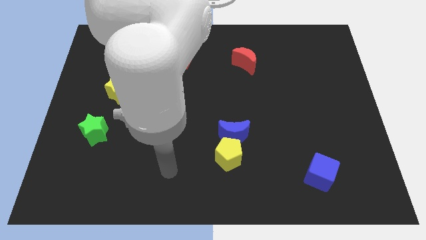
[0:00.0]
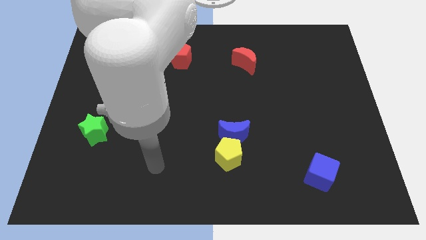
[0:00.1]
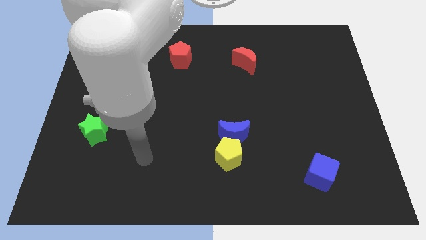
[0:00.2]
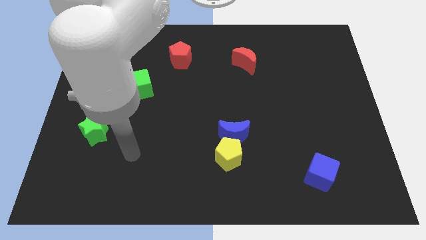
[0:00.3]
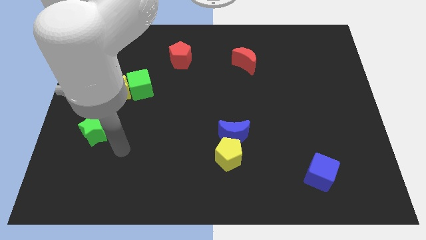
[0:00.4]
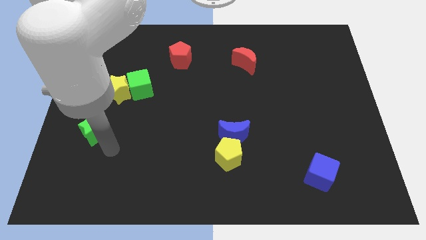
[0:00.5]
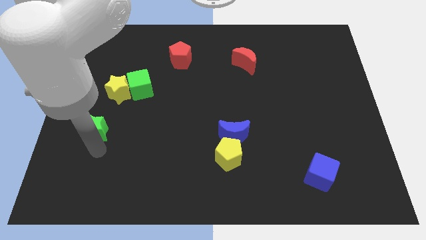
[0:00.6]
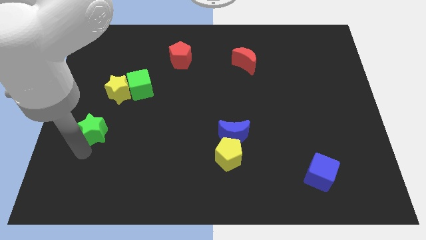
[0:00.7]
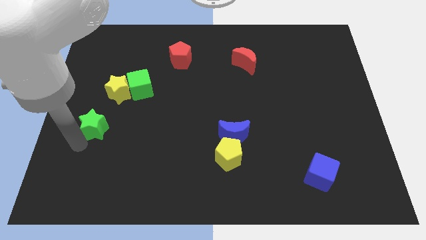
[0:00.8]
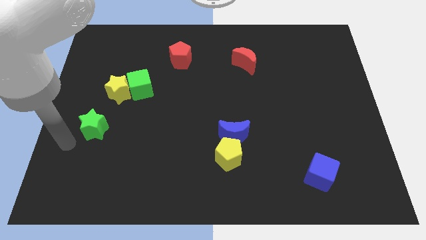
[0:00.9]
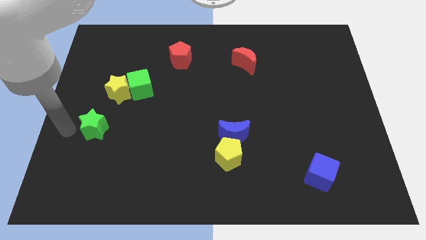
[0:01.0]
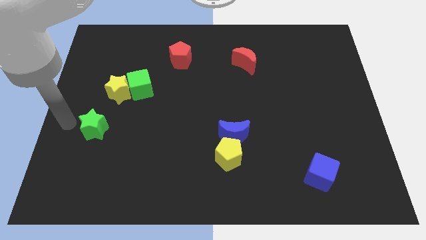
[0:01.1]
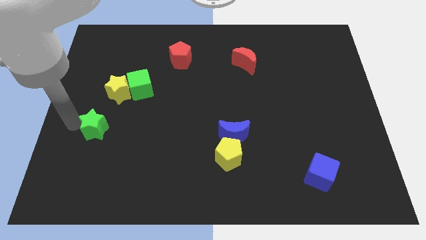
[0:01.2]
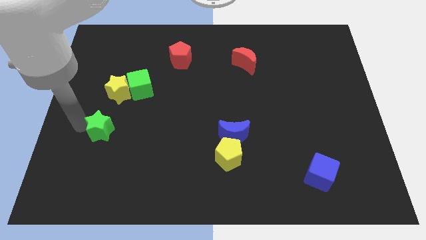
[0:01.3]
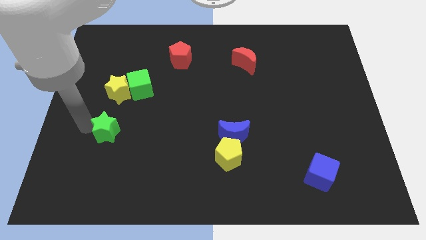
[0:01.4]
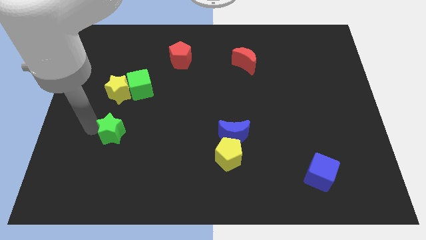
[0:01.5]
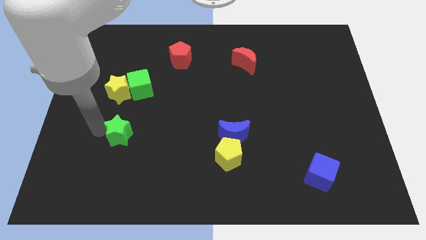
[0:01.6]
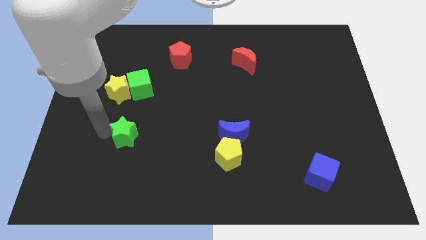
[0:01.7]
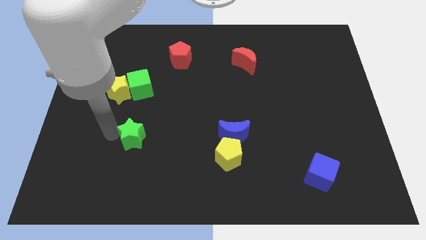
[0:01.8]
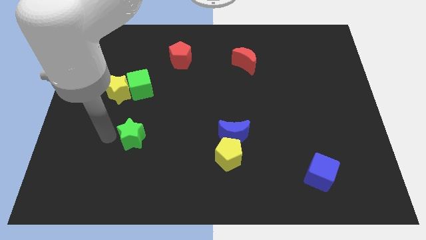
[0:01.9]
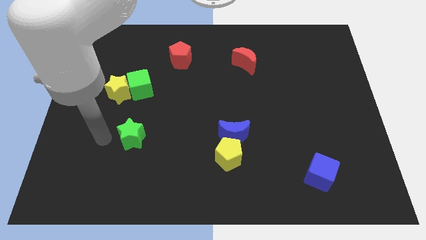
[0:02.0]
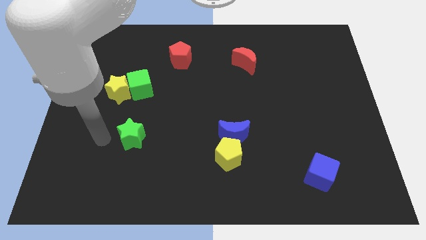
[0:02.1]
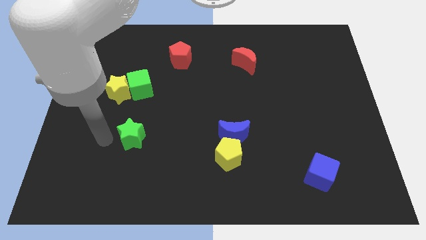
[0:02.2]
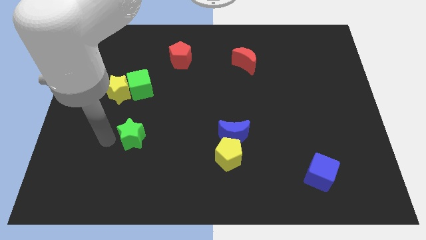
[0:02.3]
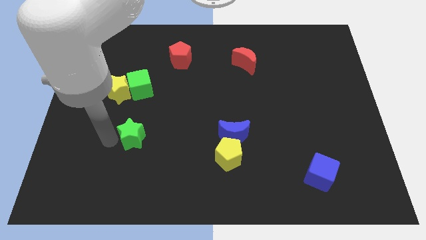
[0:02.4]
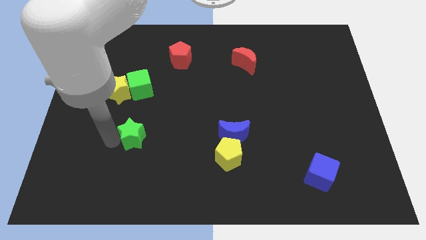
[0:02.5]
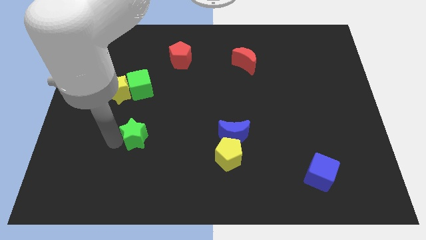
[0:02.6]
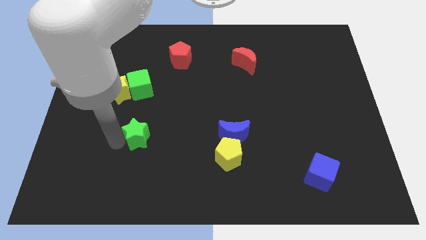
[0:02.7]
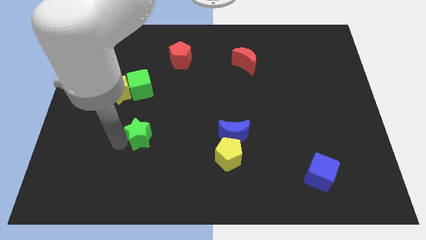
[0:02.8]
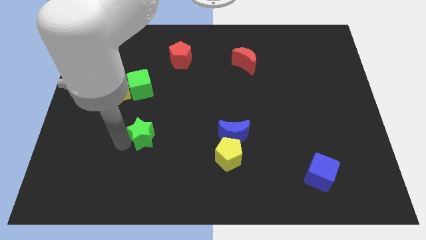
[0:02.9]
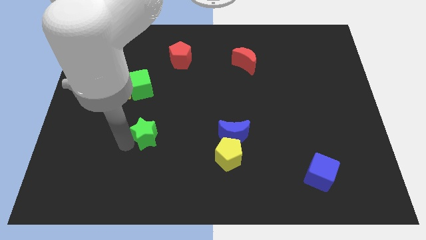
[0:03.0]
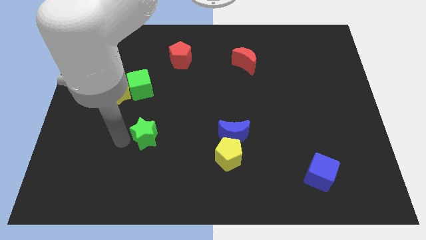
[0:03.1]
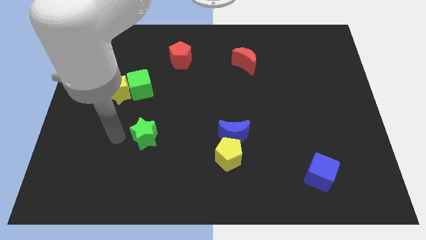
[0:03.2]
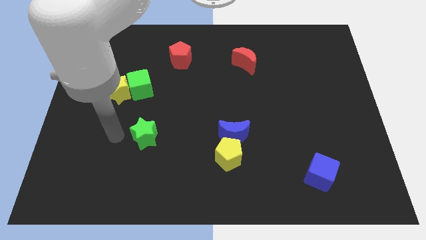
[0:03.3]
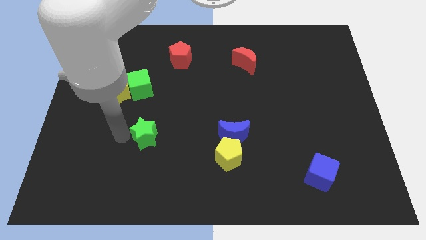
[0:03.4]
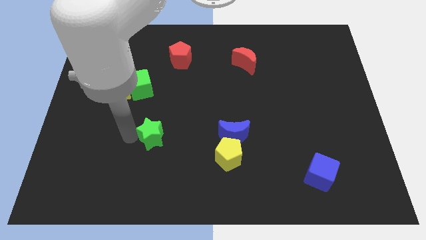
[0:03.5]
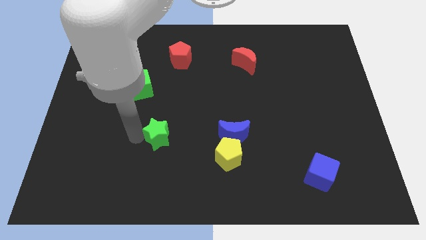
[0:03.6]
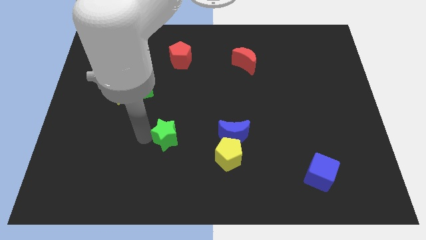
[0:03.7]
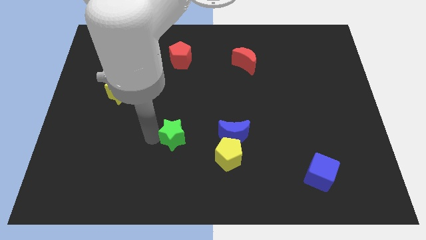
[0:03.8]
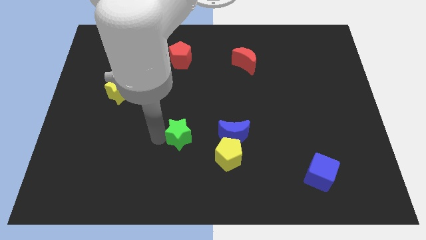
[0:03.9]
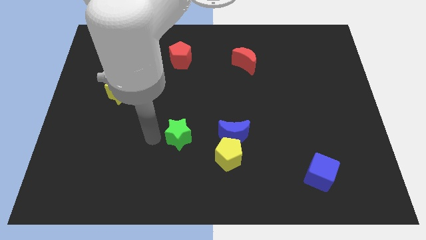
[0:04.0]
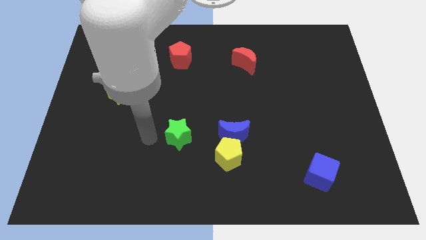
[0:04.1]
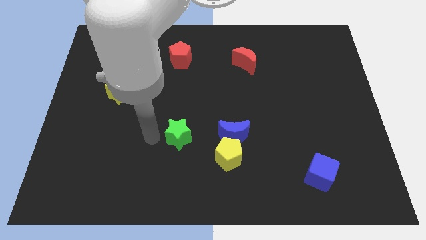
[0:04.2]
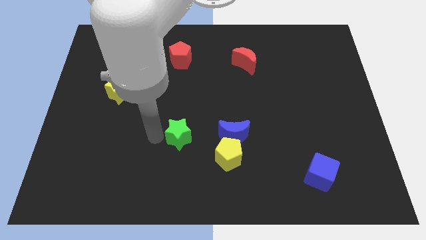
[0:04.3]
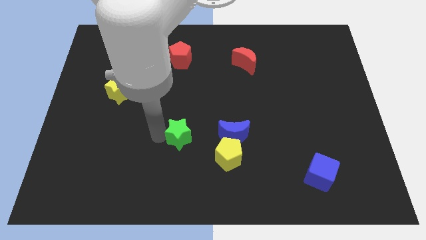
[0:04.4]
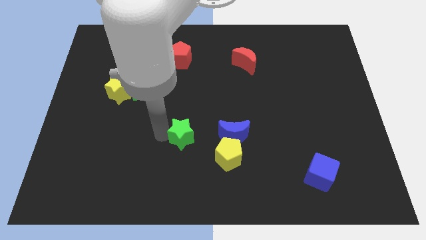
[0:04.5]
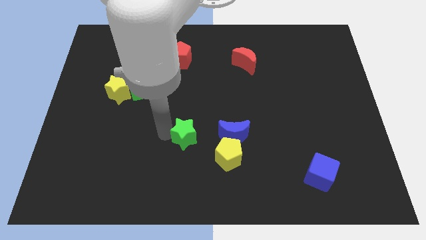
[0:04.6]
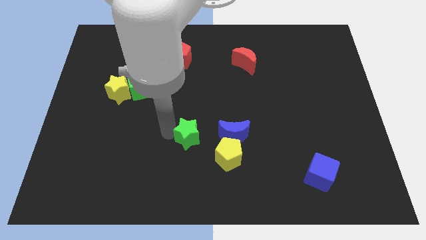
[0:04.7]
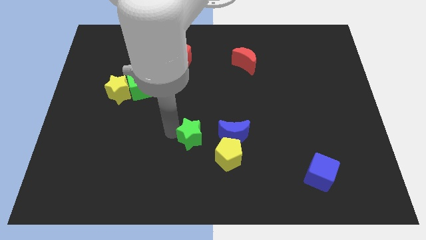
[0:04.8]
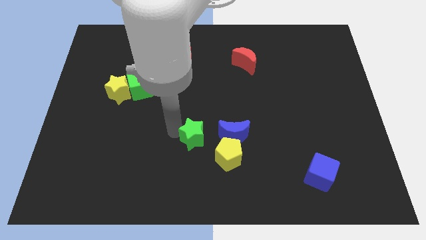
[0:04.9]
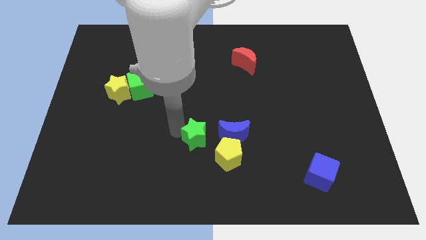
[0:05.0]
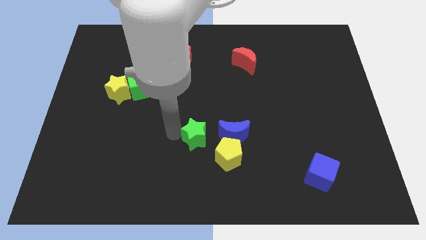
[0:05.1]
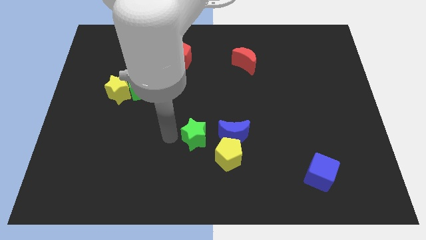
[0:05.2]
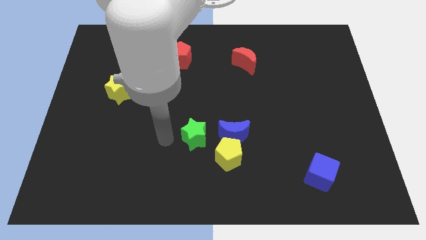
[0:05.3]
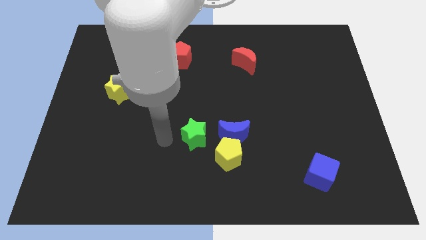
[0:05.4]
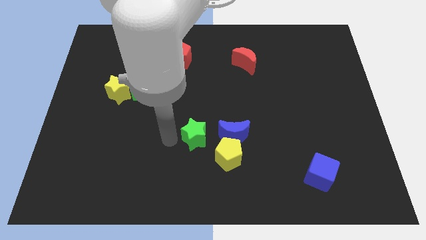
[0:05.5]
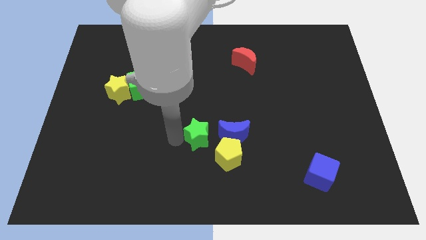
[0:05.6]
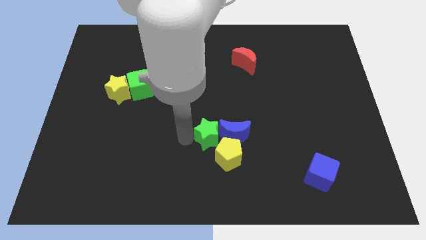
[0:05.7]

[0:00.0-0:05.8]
slide the green star close to the blue moon

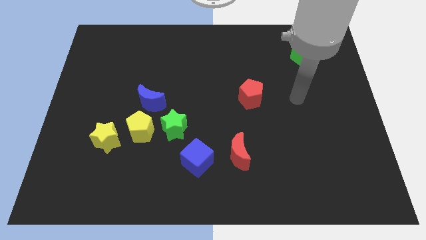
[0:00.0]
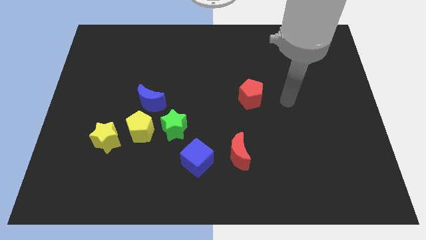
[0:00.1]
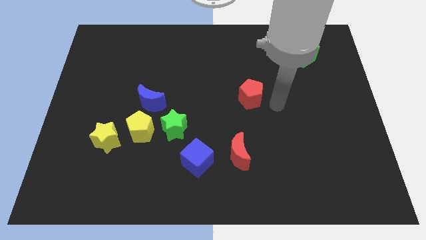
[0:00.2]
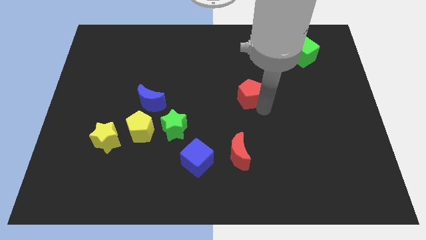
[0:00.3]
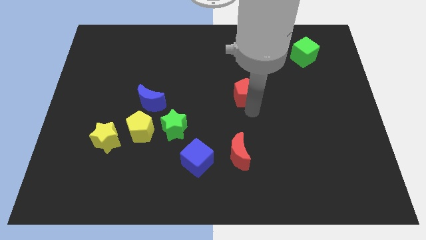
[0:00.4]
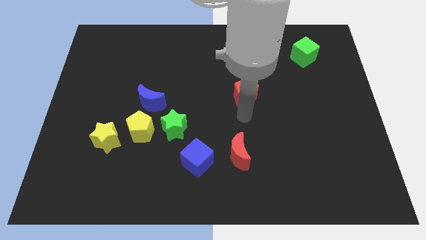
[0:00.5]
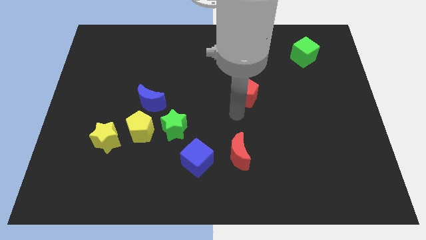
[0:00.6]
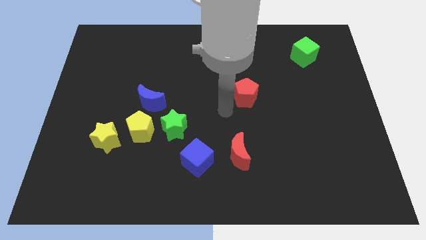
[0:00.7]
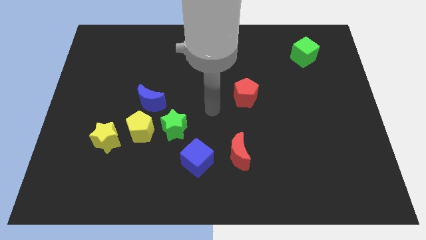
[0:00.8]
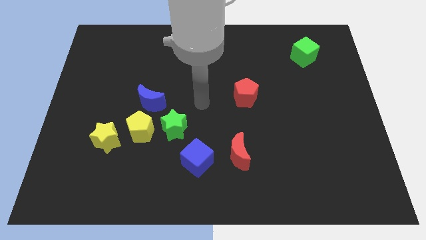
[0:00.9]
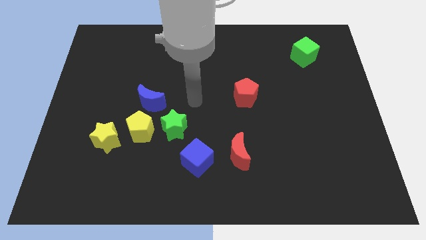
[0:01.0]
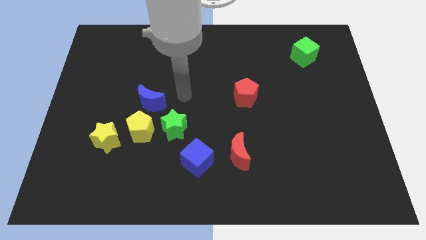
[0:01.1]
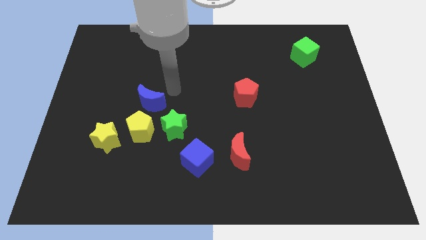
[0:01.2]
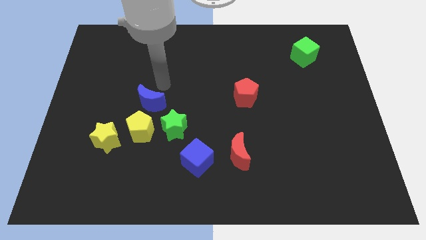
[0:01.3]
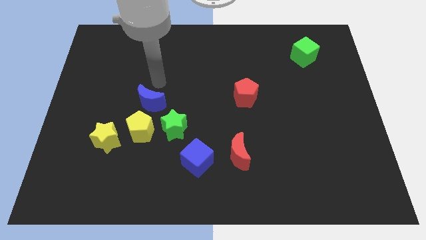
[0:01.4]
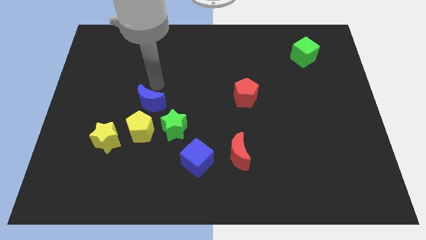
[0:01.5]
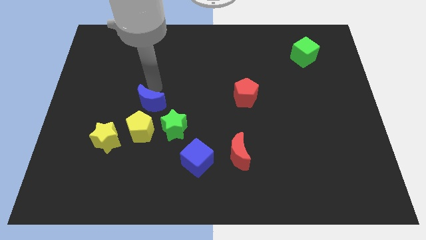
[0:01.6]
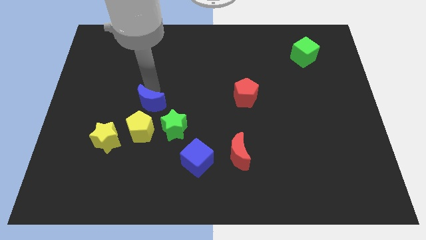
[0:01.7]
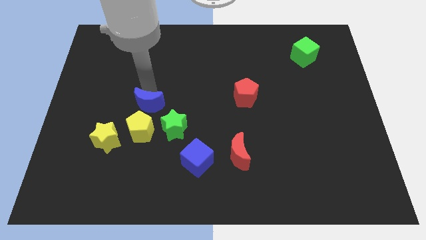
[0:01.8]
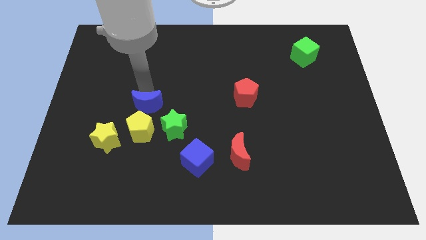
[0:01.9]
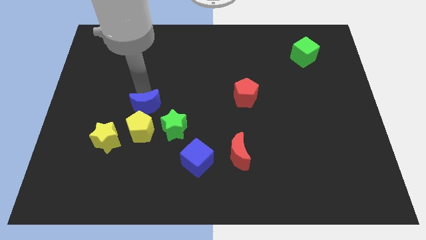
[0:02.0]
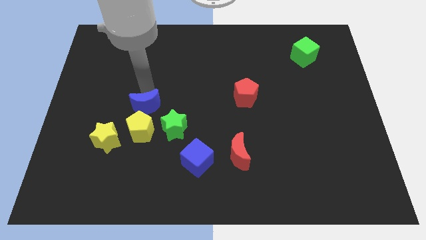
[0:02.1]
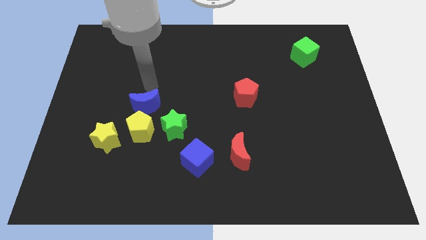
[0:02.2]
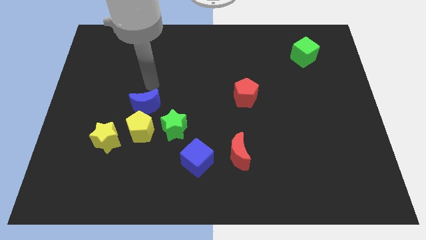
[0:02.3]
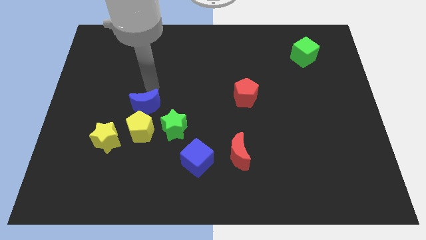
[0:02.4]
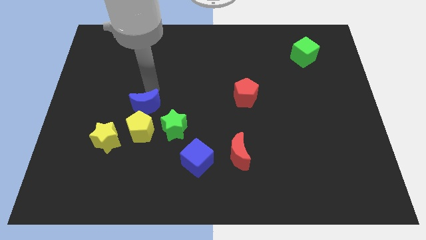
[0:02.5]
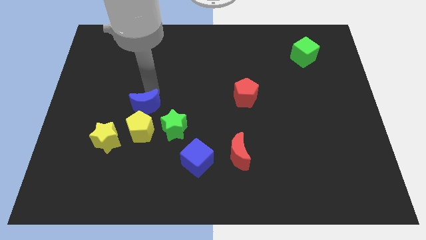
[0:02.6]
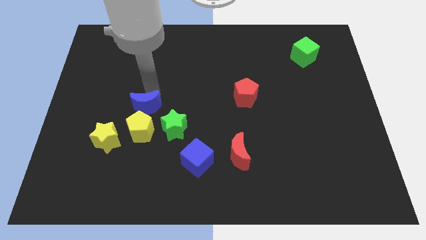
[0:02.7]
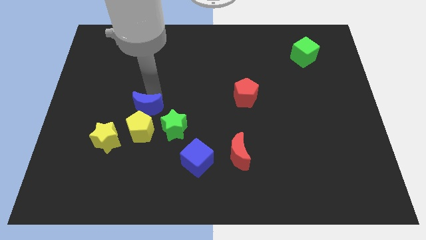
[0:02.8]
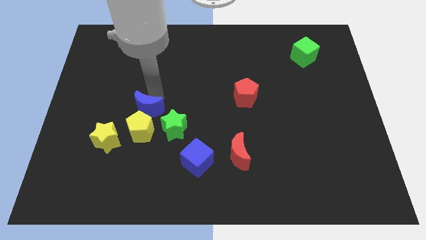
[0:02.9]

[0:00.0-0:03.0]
put the blue moon towards the yellow pentagon
